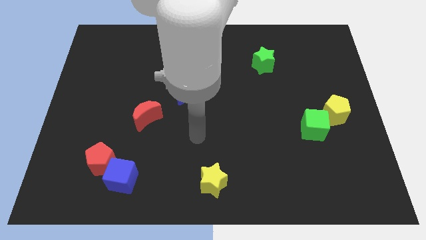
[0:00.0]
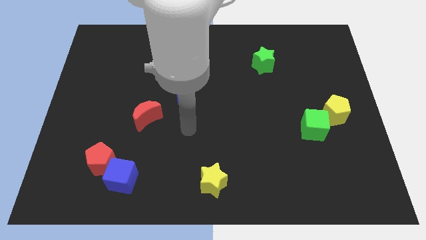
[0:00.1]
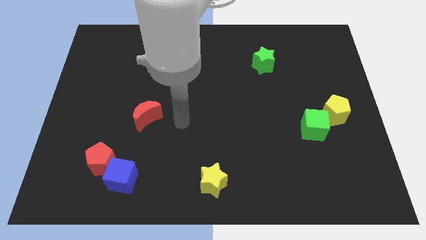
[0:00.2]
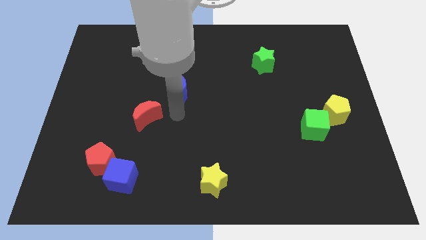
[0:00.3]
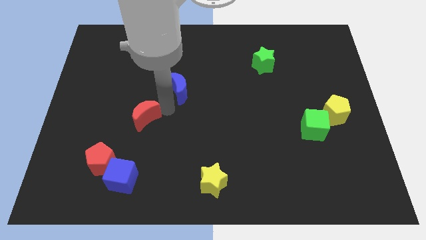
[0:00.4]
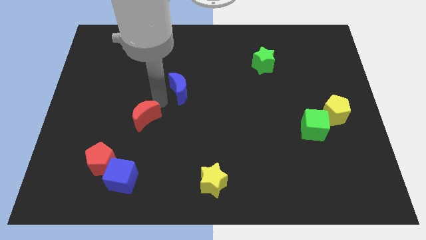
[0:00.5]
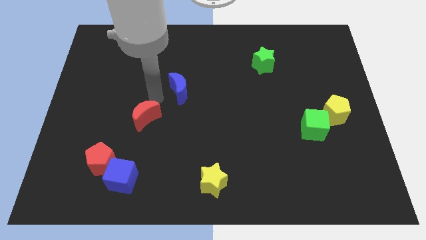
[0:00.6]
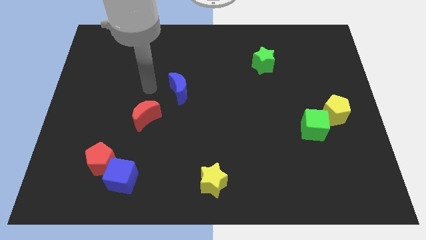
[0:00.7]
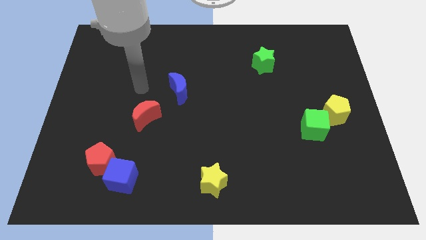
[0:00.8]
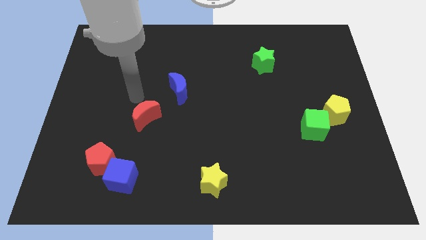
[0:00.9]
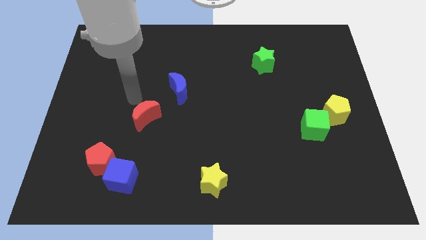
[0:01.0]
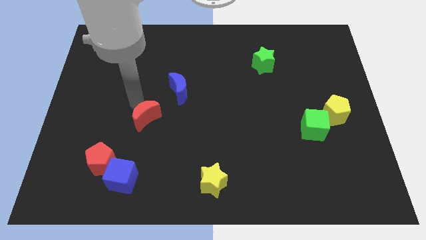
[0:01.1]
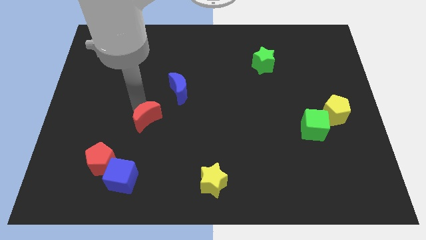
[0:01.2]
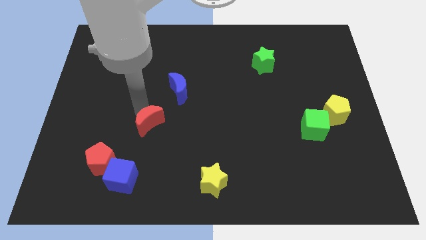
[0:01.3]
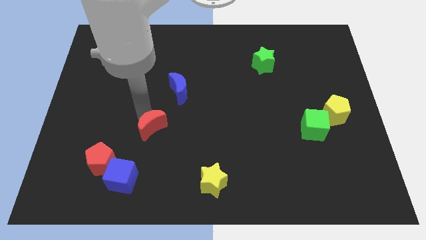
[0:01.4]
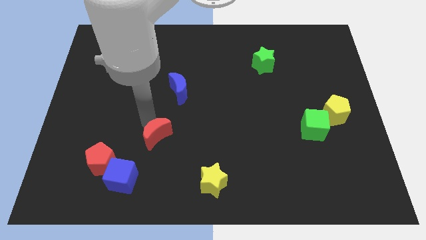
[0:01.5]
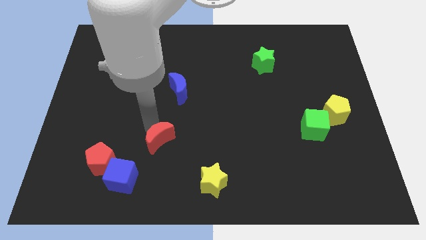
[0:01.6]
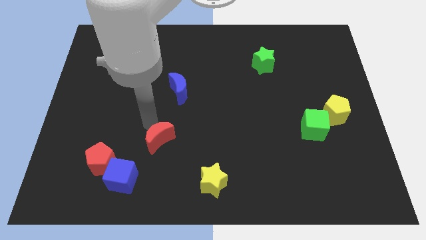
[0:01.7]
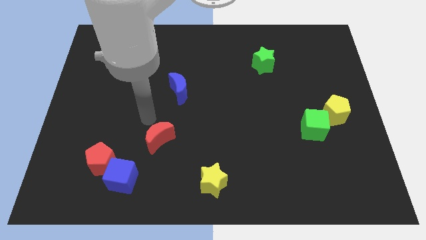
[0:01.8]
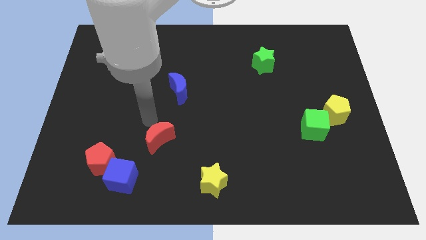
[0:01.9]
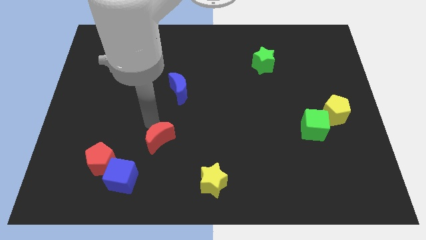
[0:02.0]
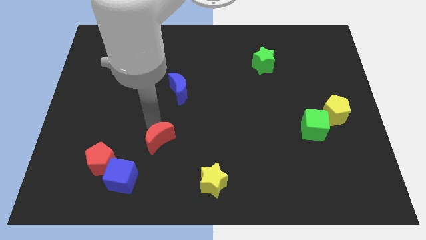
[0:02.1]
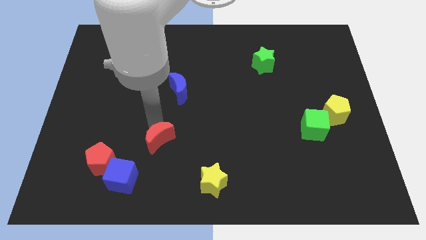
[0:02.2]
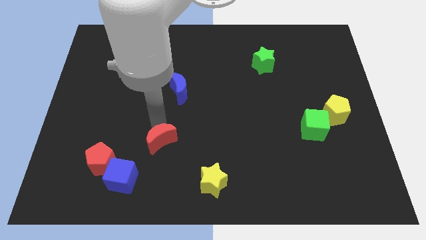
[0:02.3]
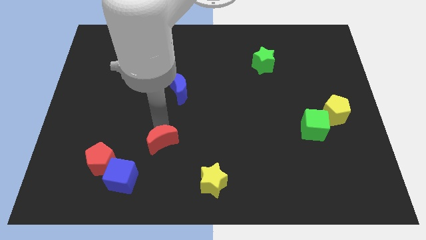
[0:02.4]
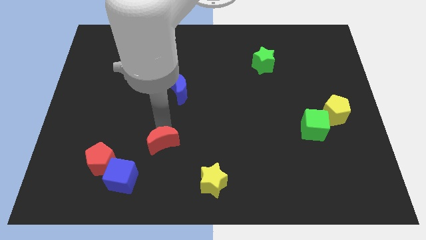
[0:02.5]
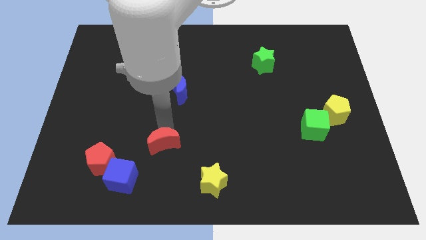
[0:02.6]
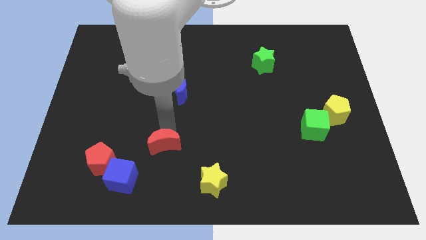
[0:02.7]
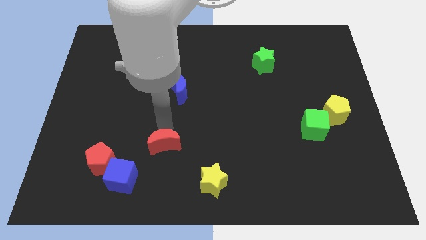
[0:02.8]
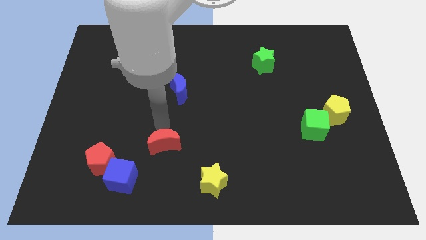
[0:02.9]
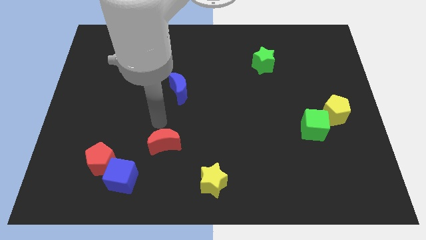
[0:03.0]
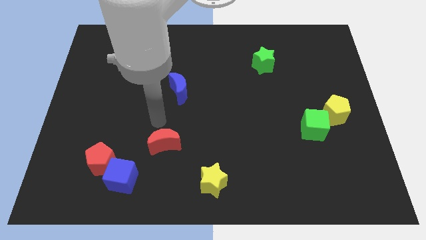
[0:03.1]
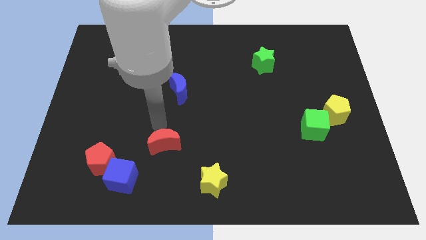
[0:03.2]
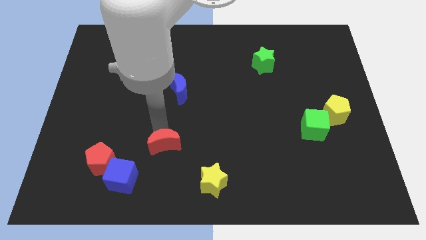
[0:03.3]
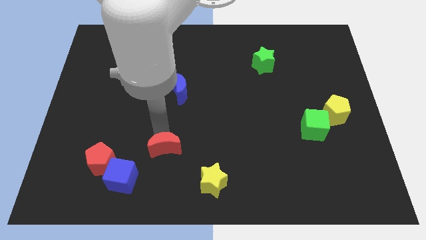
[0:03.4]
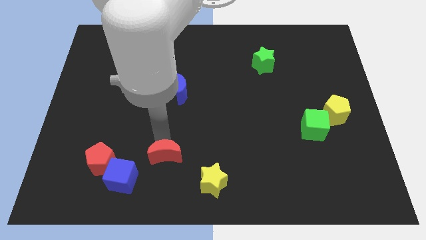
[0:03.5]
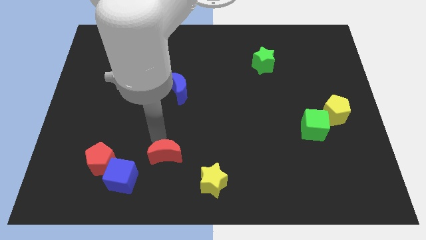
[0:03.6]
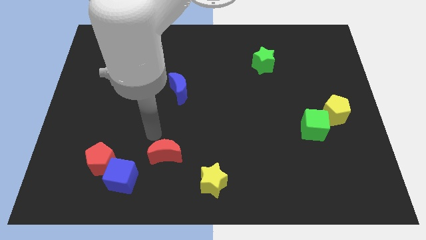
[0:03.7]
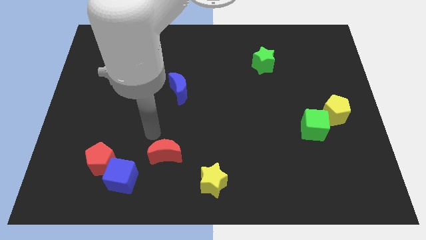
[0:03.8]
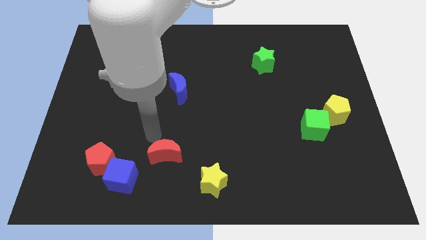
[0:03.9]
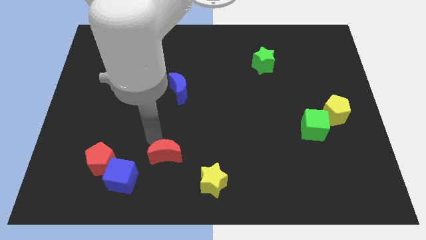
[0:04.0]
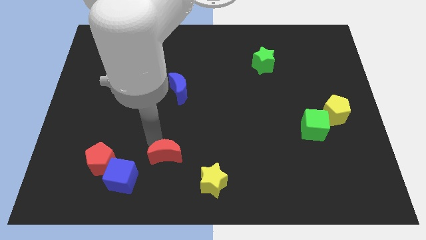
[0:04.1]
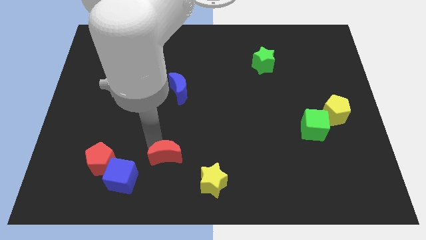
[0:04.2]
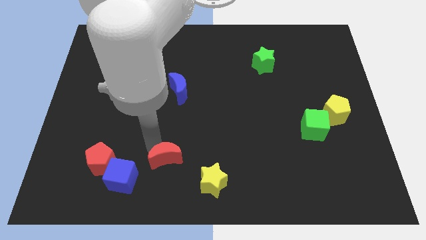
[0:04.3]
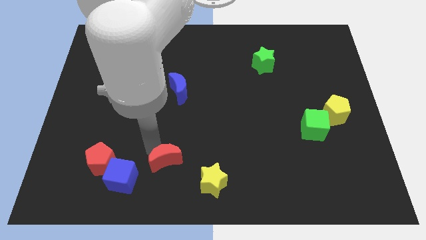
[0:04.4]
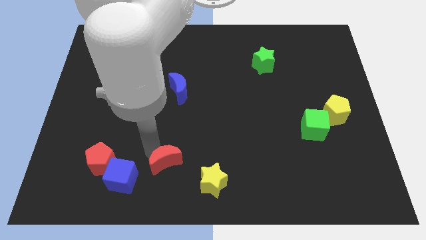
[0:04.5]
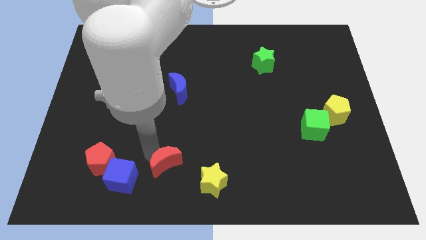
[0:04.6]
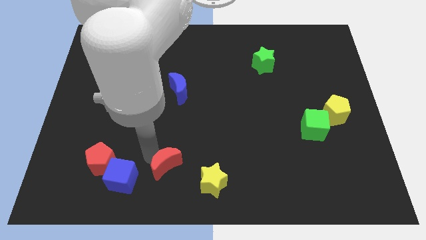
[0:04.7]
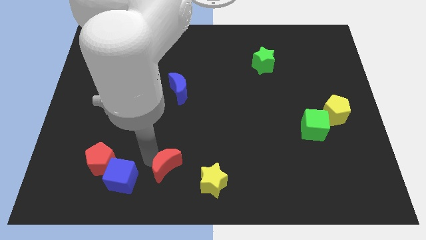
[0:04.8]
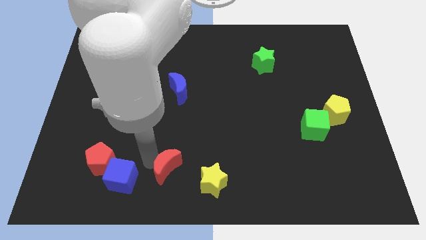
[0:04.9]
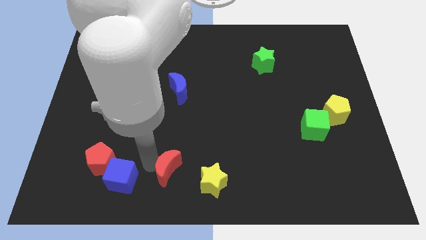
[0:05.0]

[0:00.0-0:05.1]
push the red moon to the bottom side
